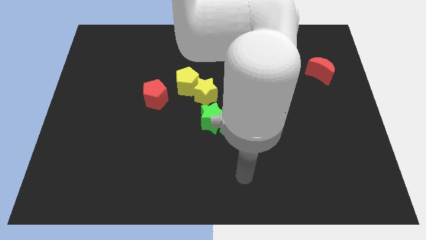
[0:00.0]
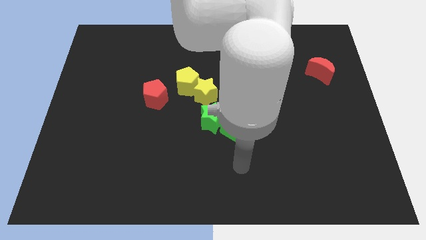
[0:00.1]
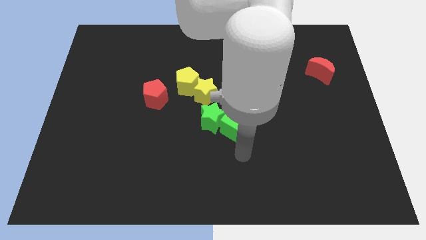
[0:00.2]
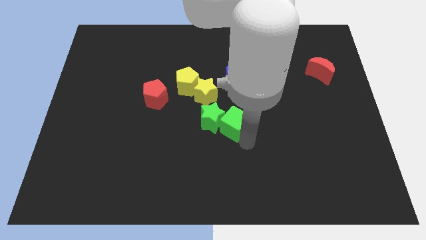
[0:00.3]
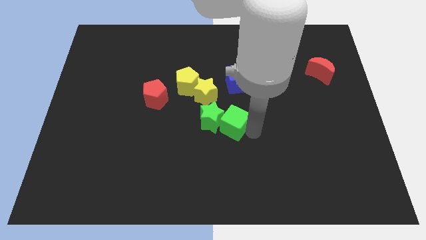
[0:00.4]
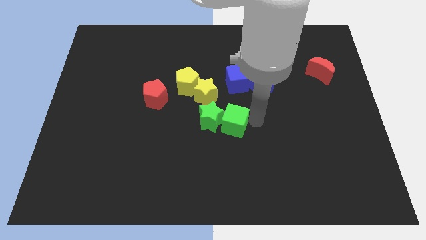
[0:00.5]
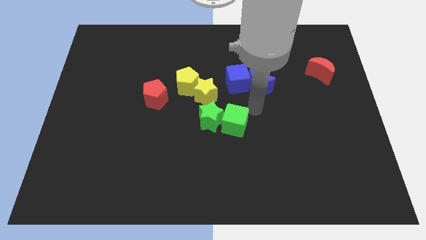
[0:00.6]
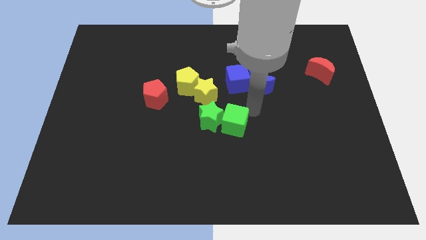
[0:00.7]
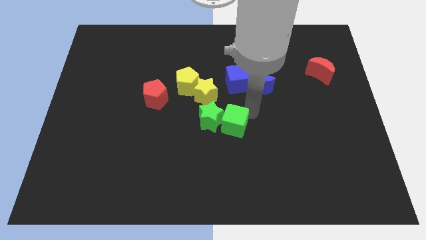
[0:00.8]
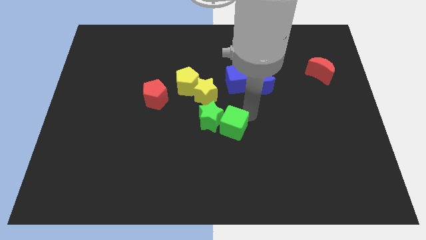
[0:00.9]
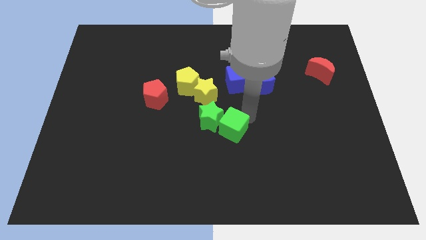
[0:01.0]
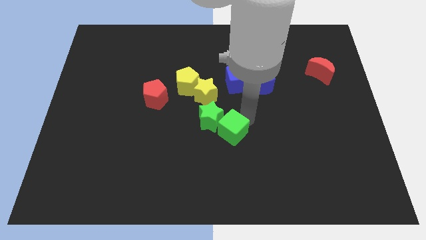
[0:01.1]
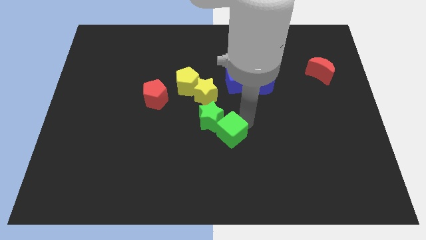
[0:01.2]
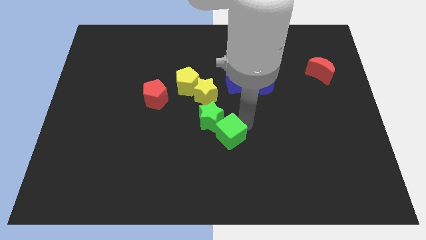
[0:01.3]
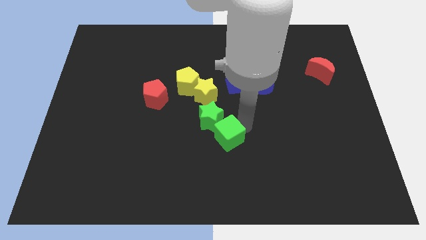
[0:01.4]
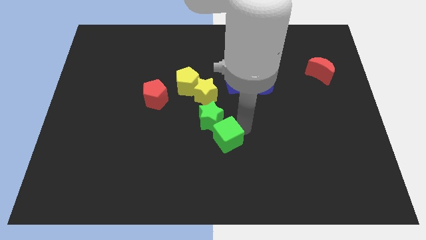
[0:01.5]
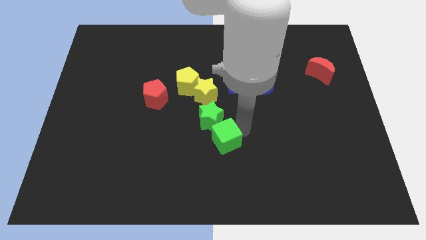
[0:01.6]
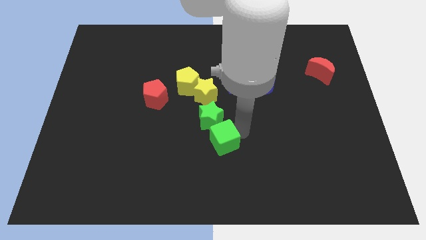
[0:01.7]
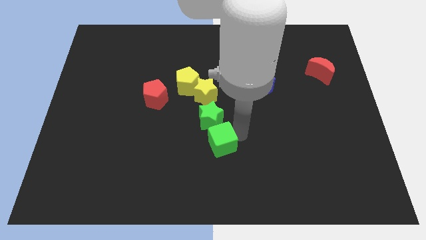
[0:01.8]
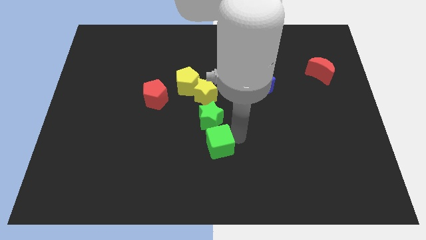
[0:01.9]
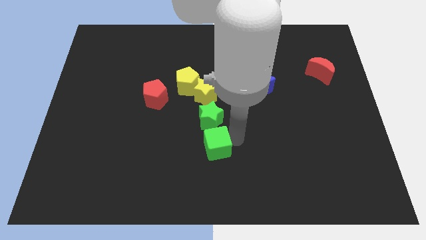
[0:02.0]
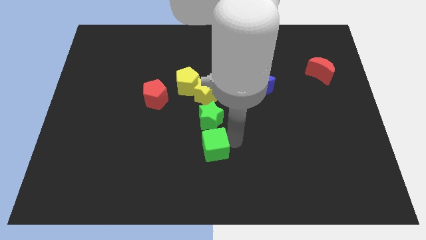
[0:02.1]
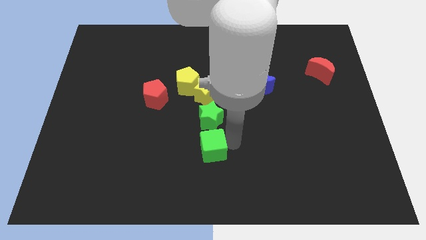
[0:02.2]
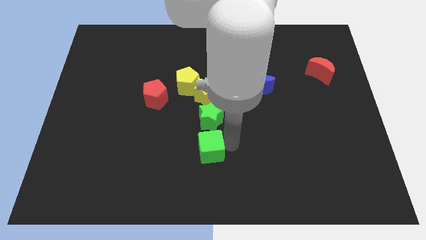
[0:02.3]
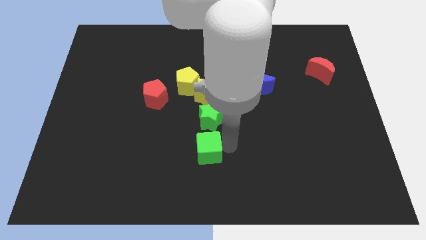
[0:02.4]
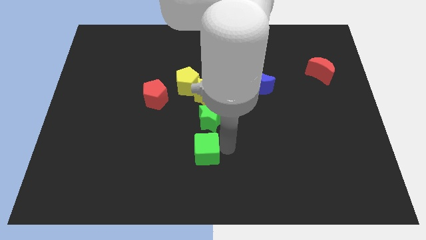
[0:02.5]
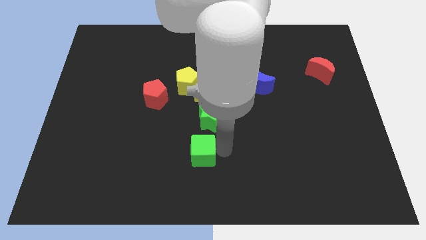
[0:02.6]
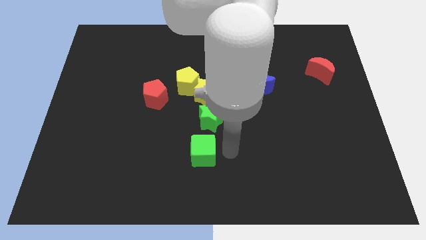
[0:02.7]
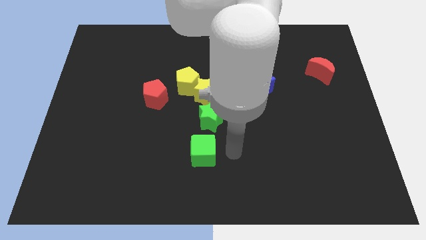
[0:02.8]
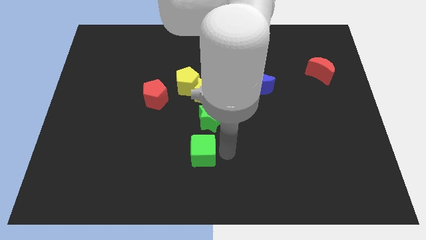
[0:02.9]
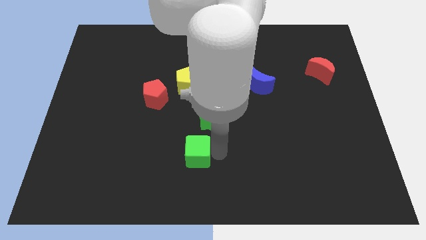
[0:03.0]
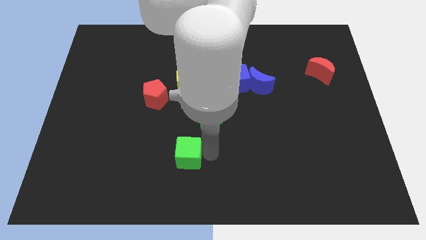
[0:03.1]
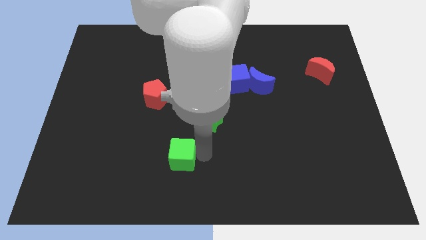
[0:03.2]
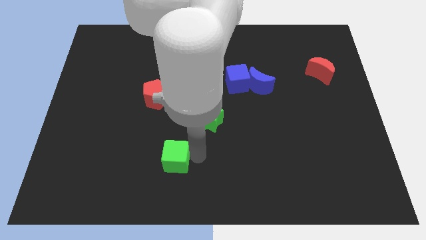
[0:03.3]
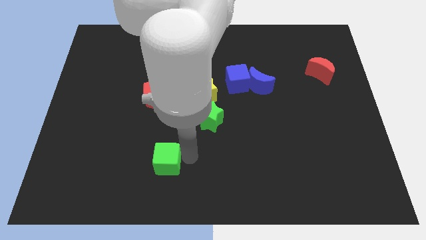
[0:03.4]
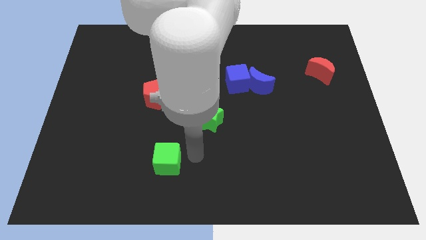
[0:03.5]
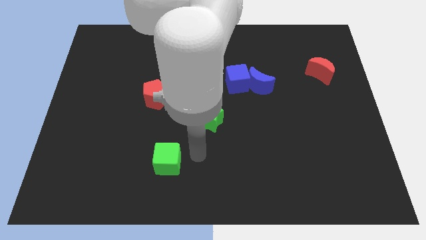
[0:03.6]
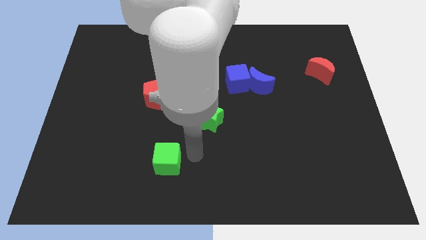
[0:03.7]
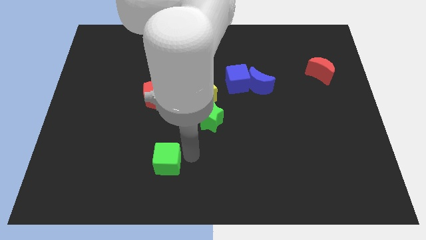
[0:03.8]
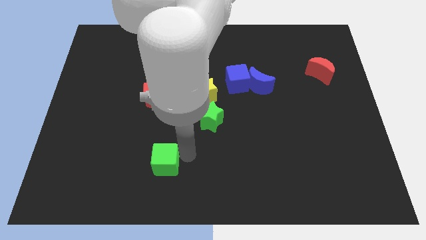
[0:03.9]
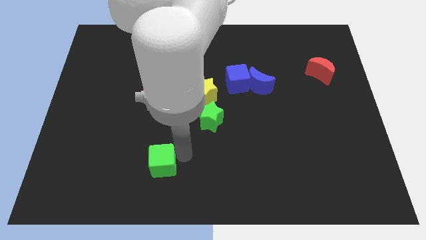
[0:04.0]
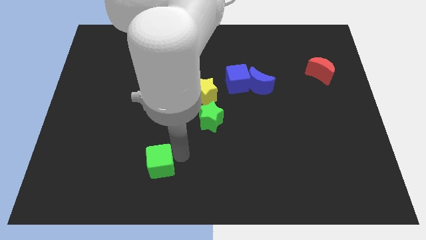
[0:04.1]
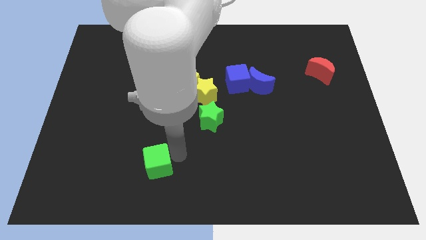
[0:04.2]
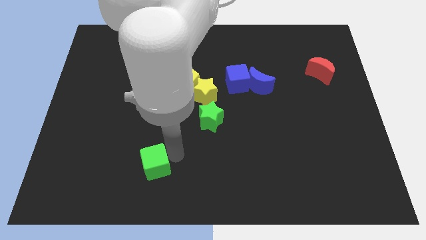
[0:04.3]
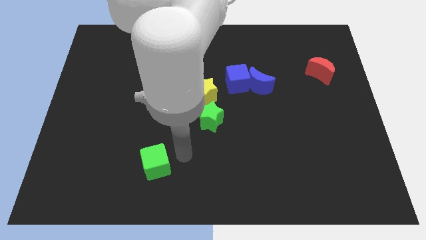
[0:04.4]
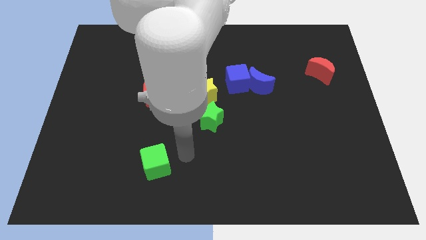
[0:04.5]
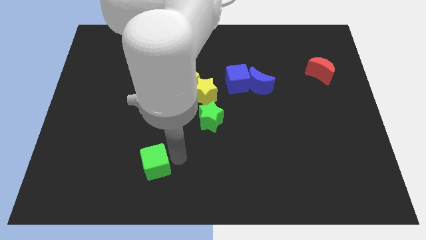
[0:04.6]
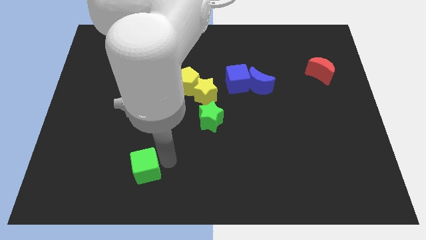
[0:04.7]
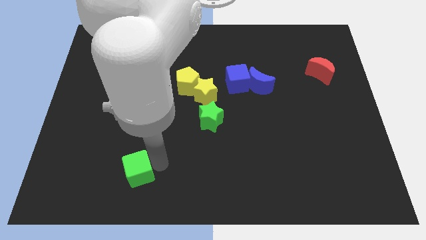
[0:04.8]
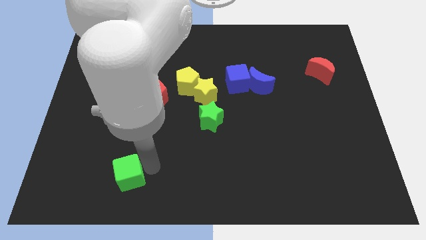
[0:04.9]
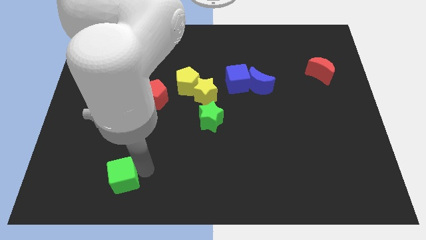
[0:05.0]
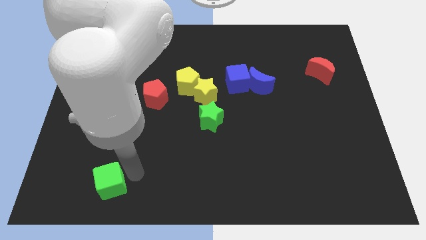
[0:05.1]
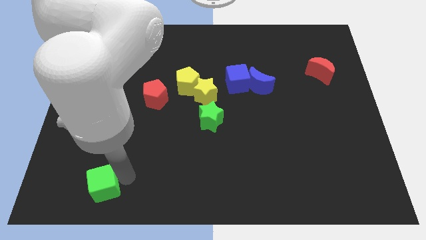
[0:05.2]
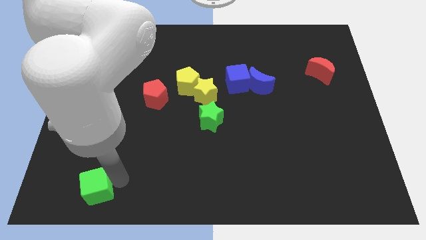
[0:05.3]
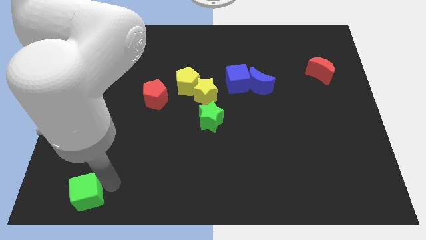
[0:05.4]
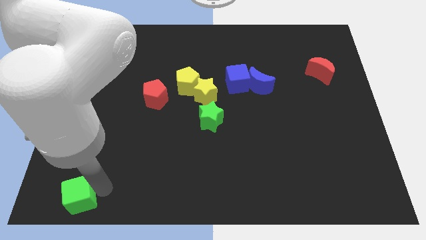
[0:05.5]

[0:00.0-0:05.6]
push the green cube to the bottom left corner

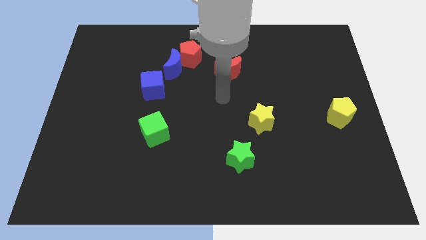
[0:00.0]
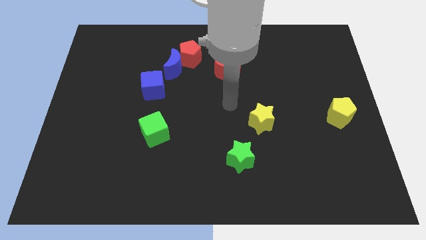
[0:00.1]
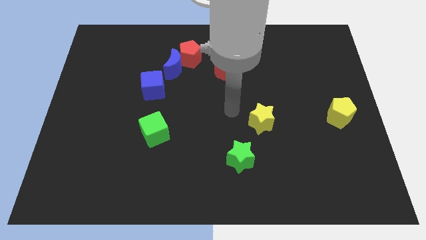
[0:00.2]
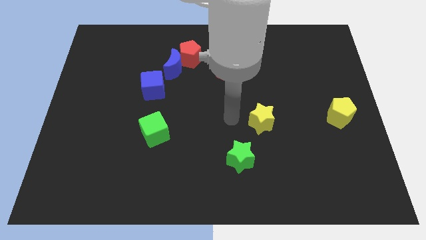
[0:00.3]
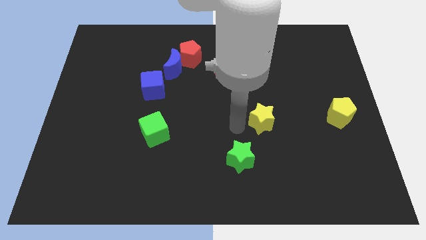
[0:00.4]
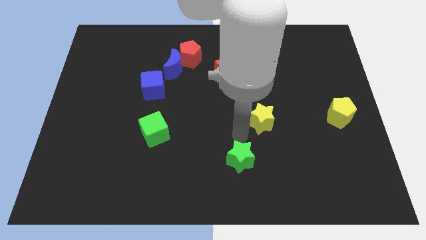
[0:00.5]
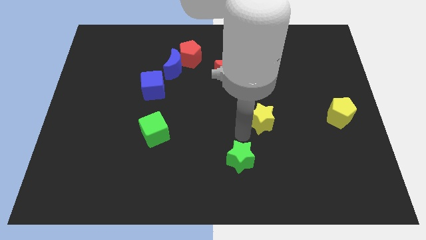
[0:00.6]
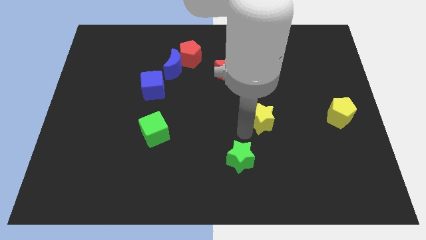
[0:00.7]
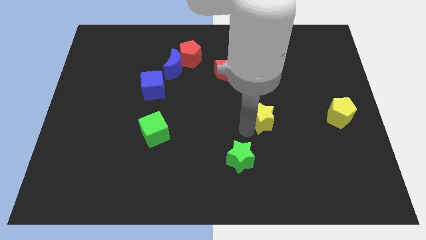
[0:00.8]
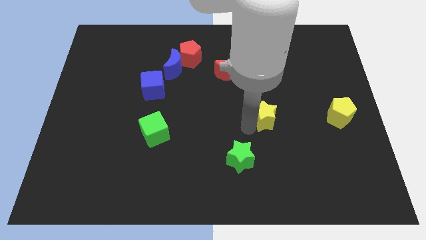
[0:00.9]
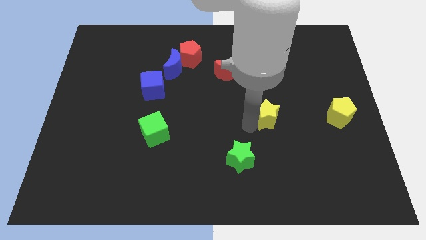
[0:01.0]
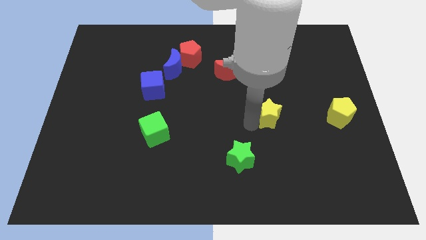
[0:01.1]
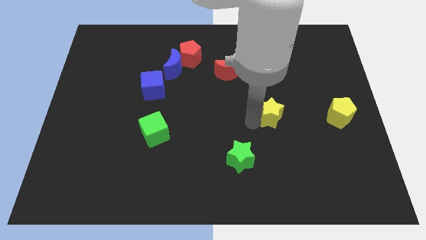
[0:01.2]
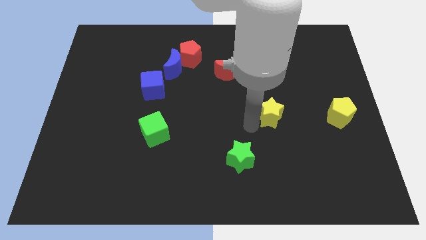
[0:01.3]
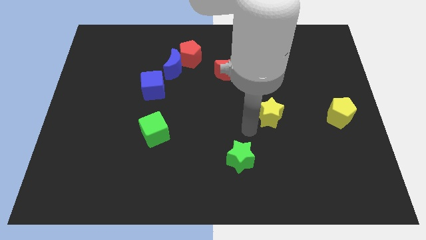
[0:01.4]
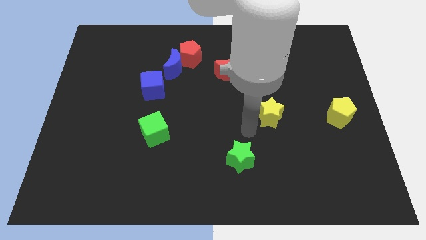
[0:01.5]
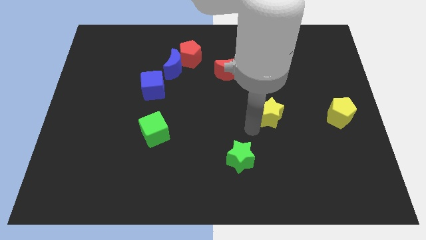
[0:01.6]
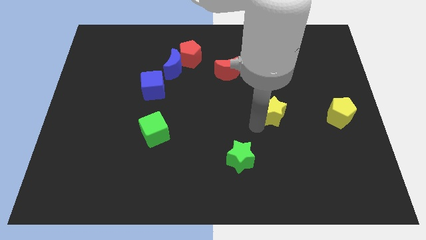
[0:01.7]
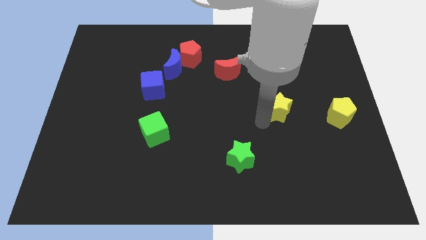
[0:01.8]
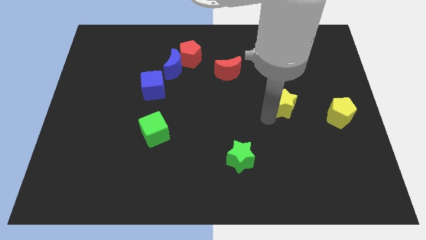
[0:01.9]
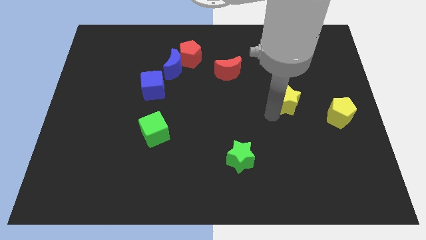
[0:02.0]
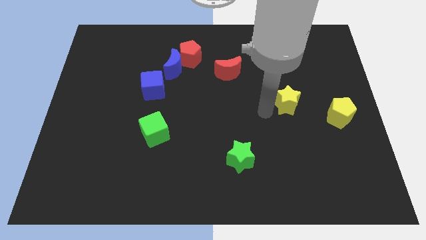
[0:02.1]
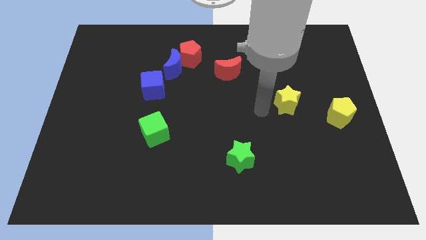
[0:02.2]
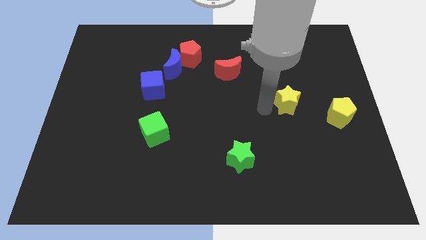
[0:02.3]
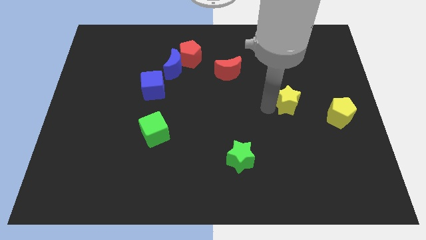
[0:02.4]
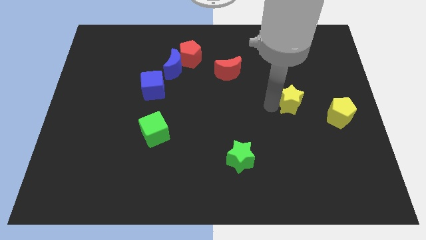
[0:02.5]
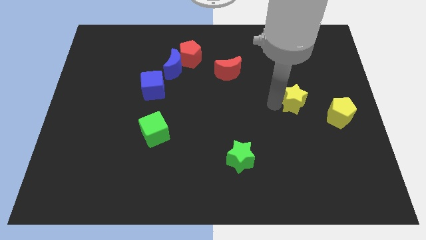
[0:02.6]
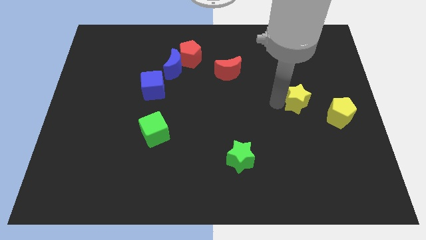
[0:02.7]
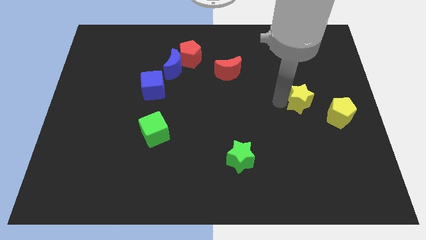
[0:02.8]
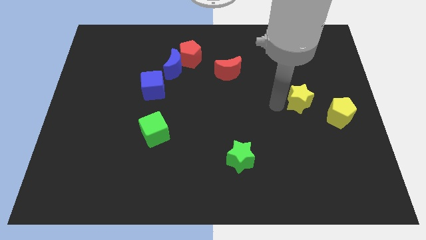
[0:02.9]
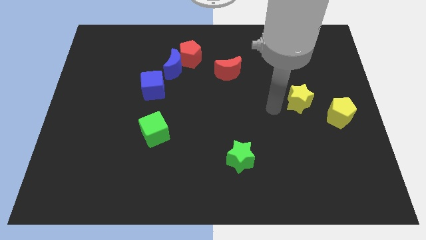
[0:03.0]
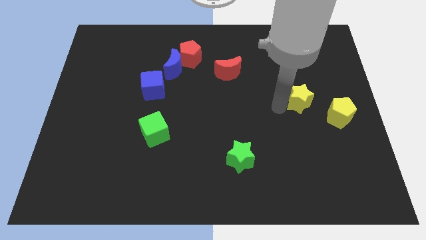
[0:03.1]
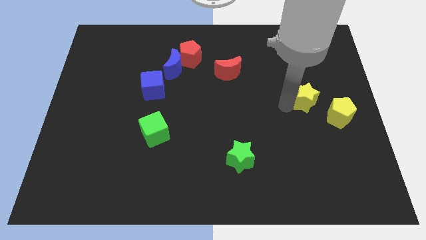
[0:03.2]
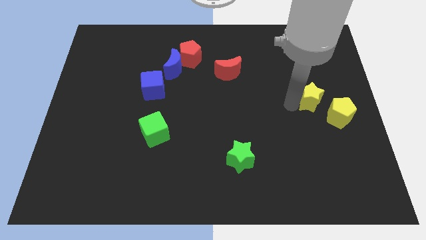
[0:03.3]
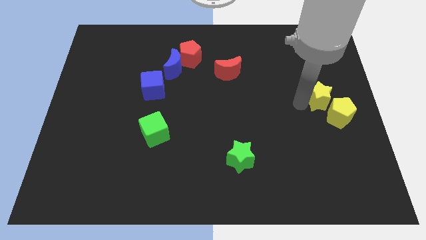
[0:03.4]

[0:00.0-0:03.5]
move the yellow star to the right side of the board
